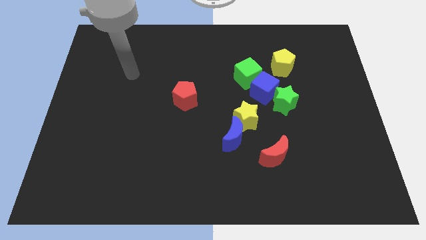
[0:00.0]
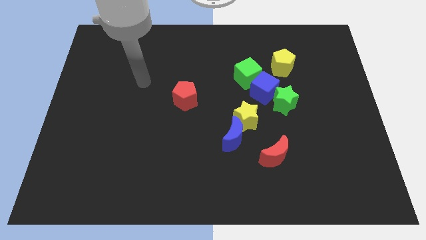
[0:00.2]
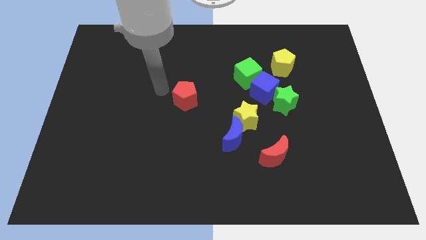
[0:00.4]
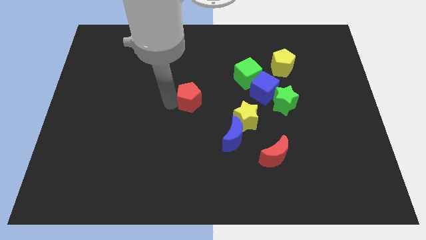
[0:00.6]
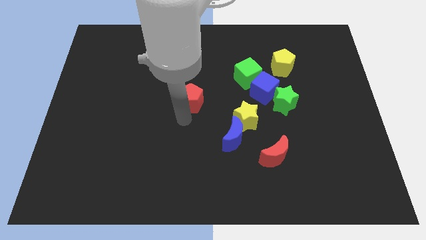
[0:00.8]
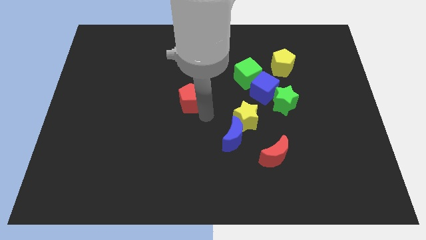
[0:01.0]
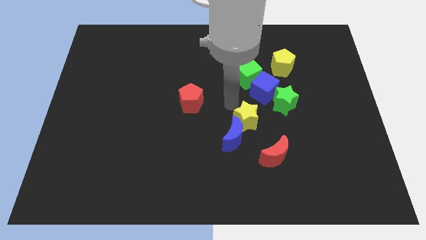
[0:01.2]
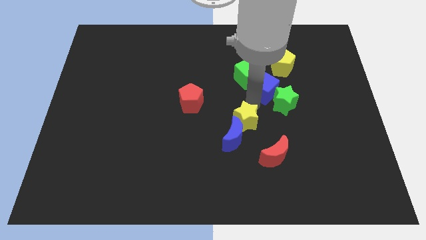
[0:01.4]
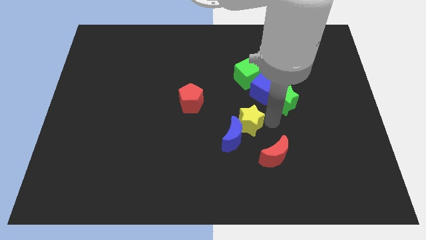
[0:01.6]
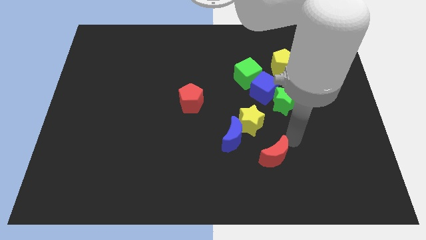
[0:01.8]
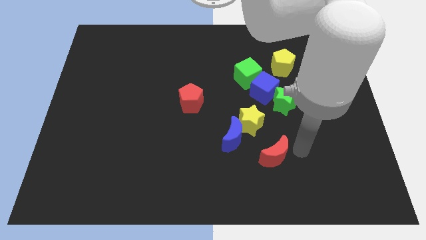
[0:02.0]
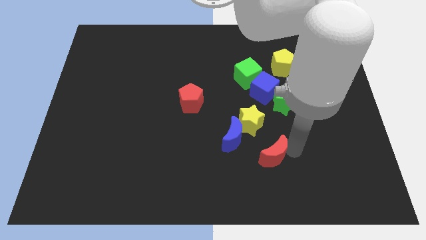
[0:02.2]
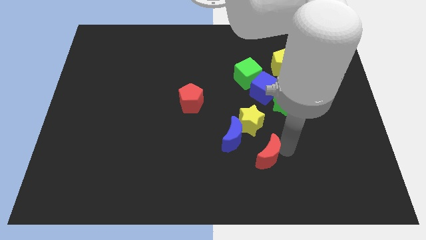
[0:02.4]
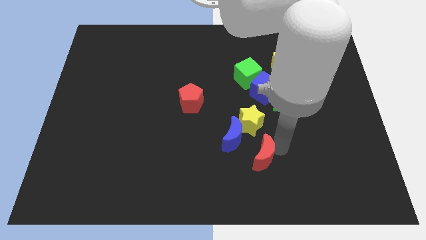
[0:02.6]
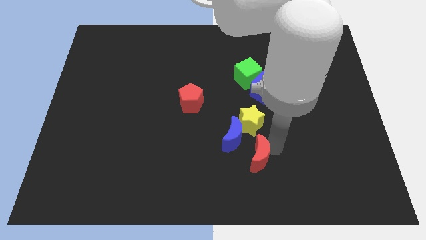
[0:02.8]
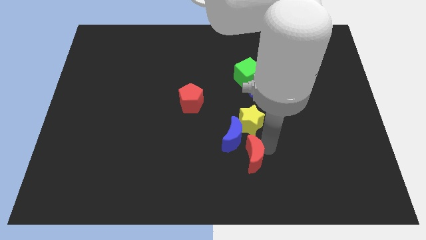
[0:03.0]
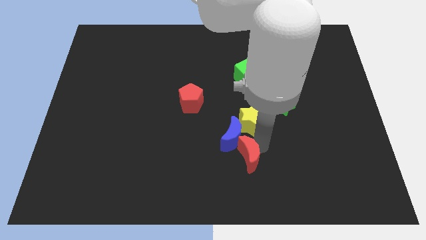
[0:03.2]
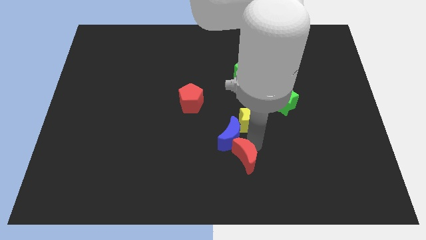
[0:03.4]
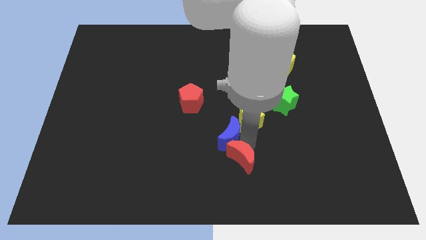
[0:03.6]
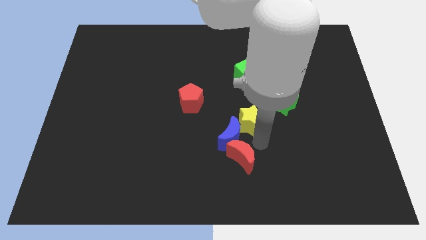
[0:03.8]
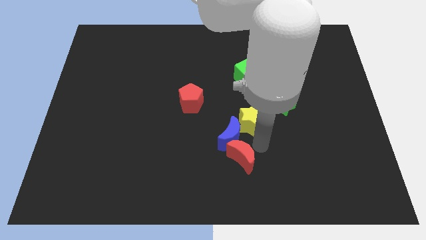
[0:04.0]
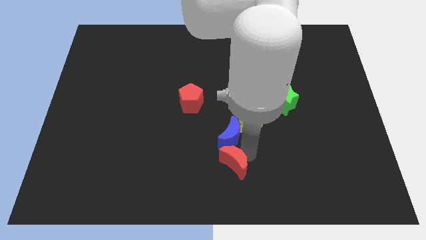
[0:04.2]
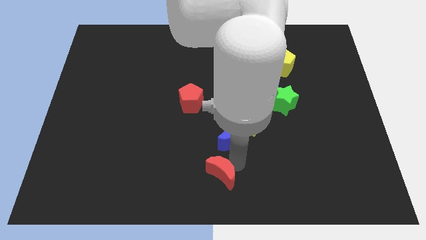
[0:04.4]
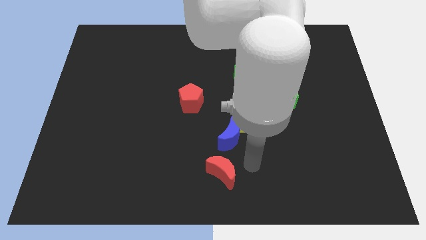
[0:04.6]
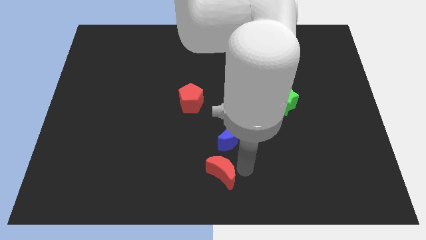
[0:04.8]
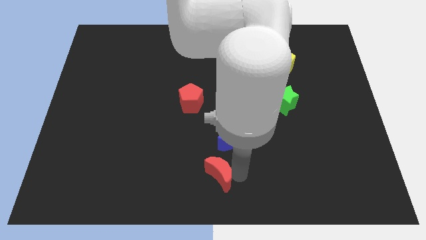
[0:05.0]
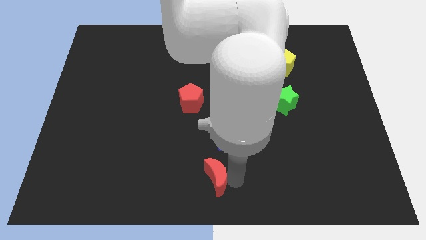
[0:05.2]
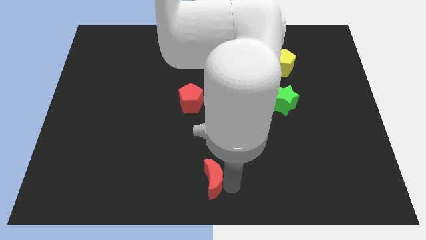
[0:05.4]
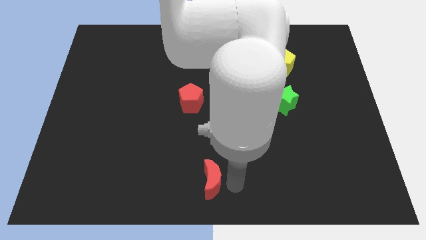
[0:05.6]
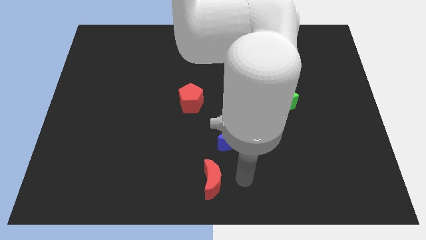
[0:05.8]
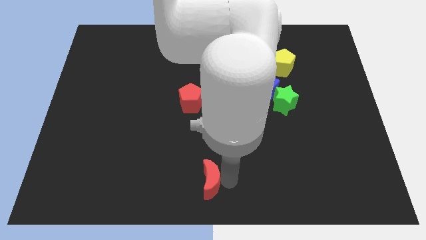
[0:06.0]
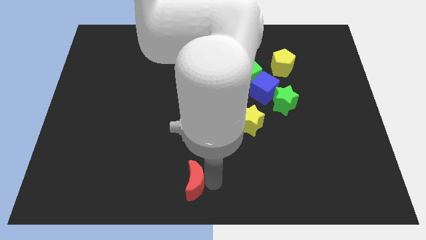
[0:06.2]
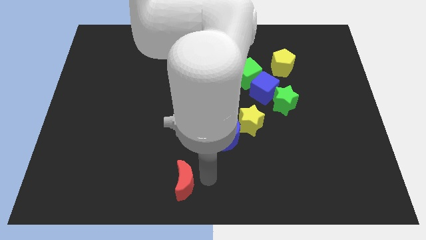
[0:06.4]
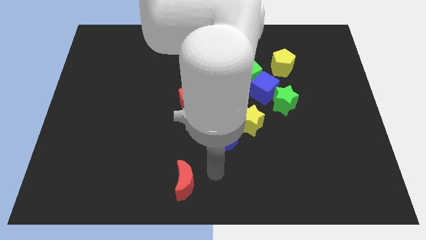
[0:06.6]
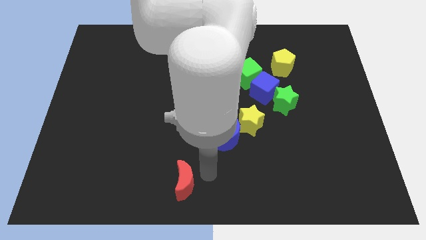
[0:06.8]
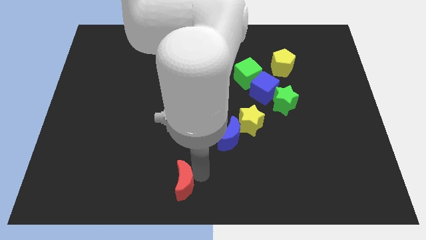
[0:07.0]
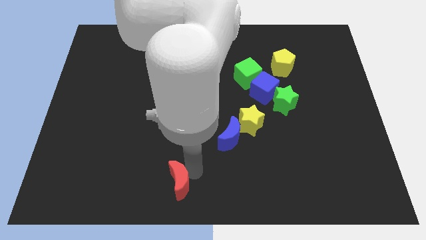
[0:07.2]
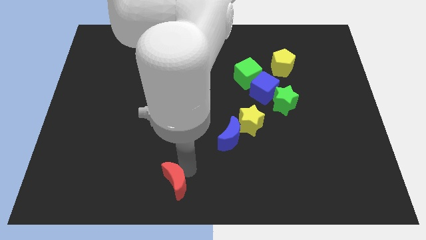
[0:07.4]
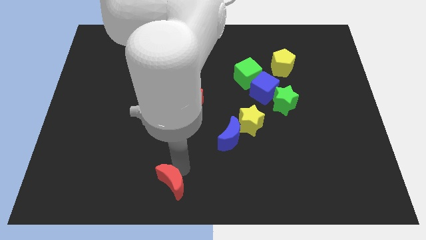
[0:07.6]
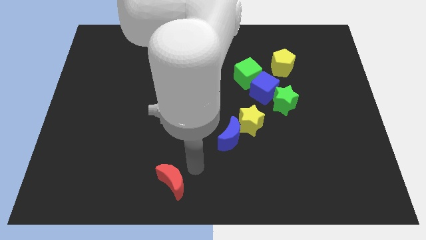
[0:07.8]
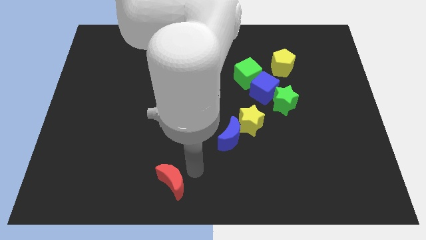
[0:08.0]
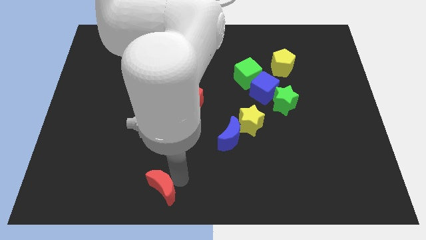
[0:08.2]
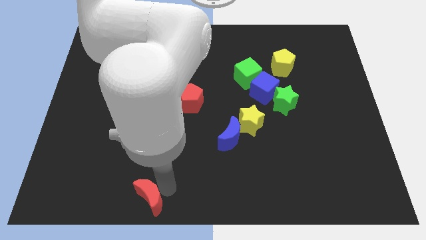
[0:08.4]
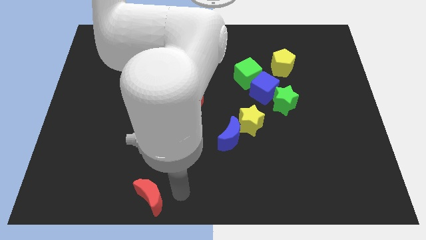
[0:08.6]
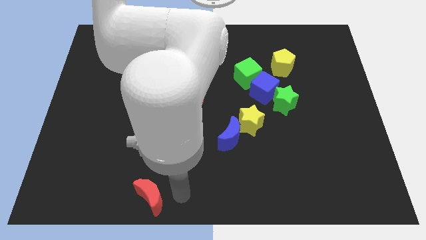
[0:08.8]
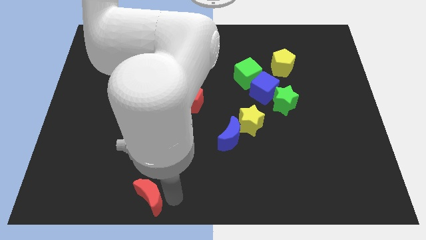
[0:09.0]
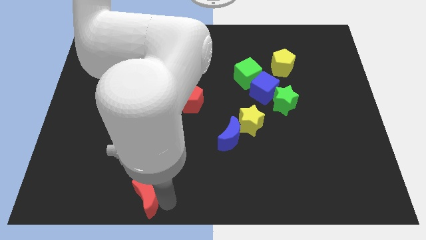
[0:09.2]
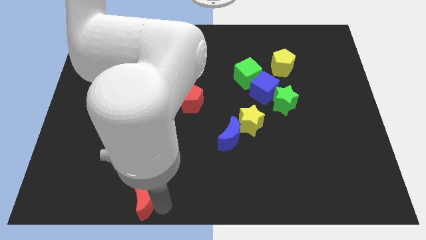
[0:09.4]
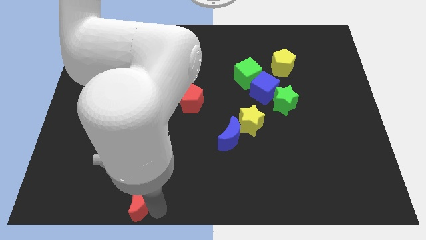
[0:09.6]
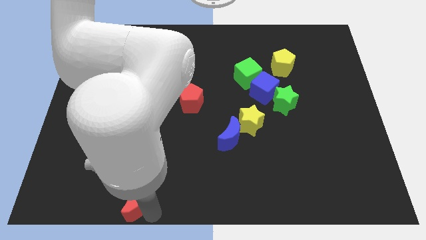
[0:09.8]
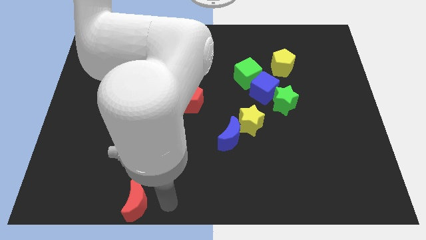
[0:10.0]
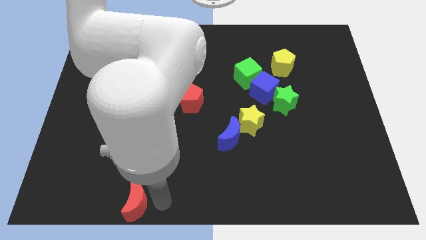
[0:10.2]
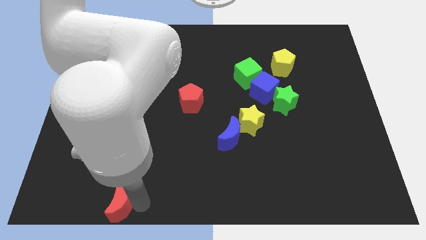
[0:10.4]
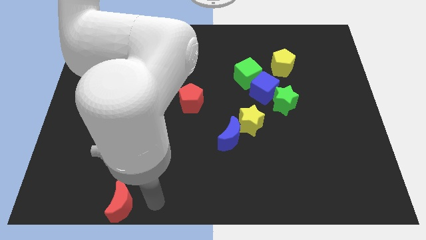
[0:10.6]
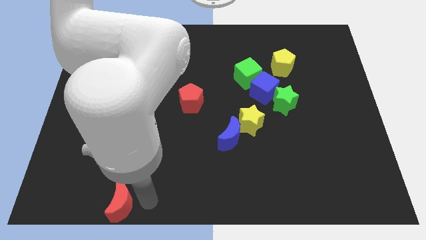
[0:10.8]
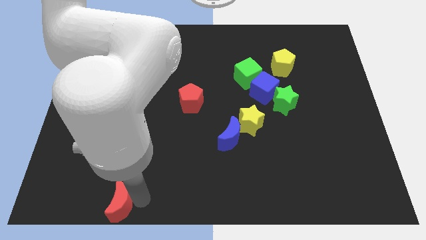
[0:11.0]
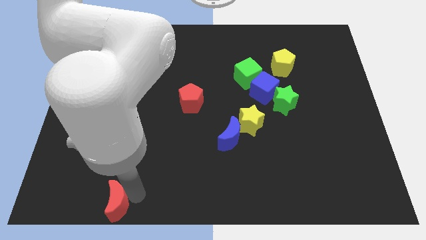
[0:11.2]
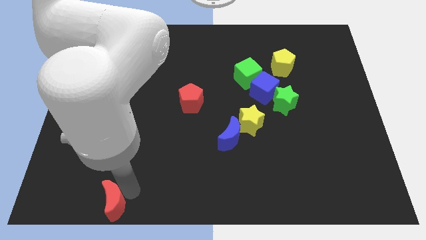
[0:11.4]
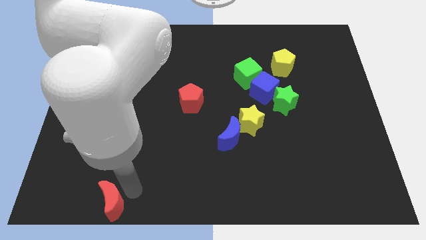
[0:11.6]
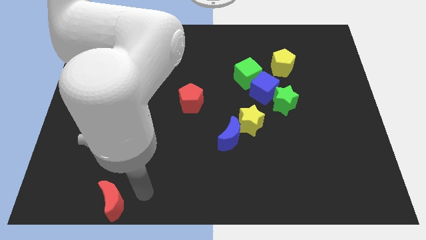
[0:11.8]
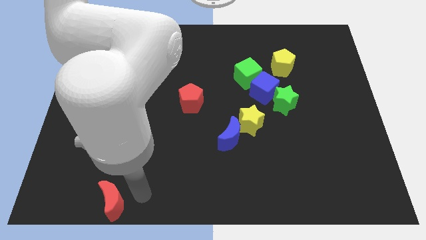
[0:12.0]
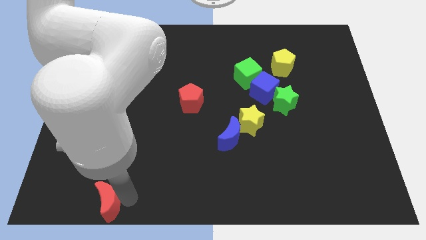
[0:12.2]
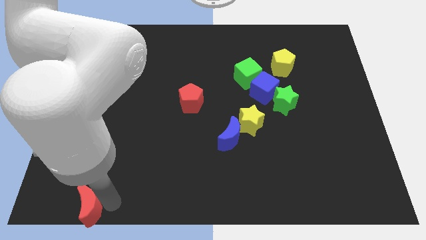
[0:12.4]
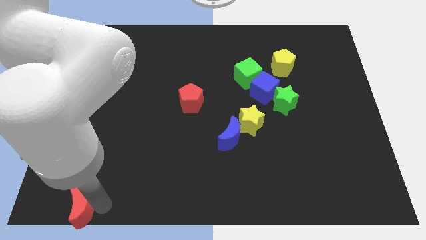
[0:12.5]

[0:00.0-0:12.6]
put the red moon to the bottom left
